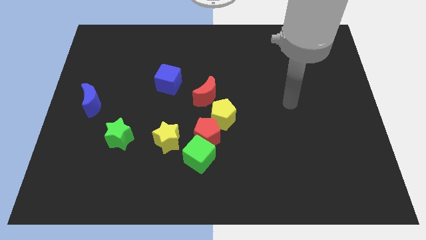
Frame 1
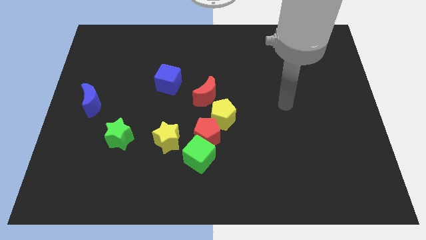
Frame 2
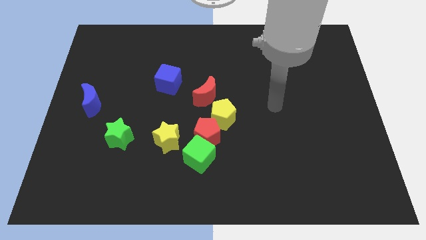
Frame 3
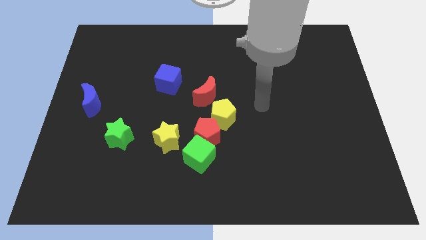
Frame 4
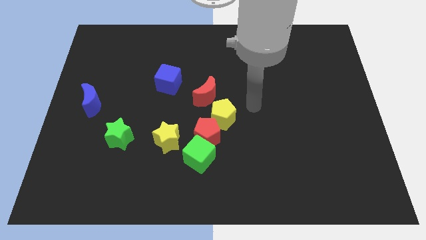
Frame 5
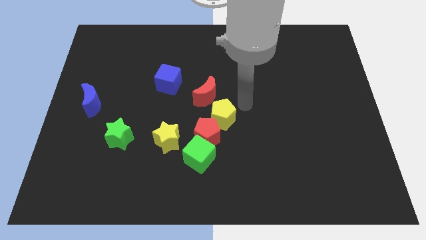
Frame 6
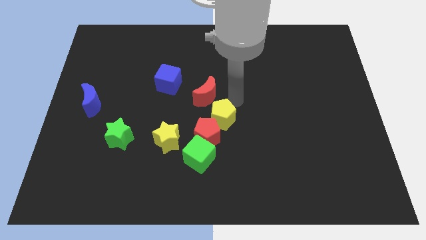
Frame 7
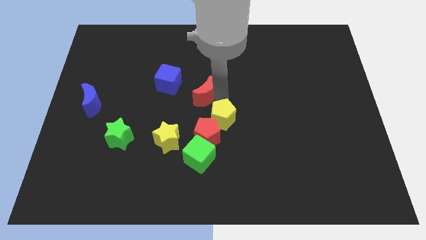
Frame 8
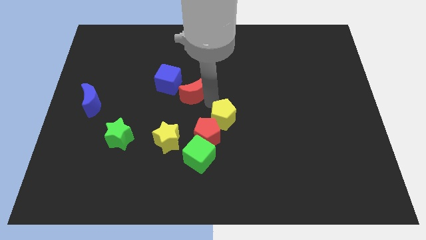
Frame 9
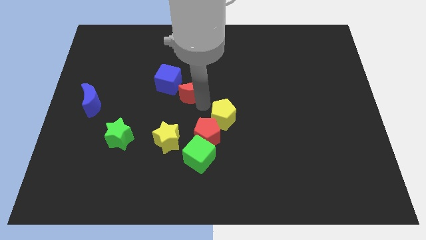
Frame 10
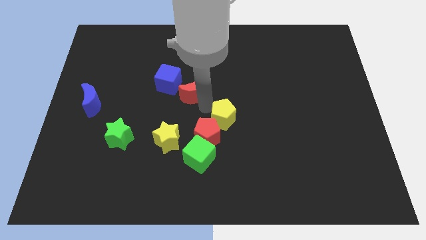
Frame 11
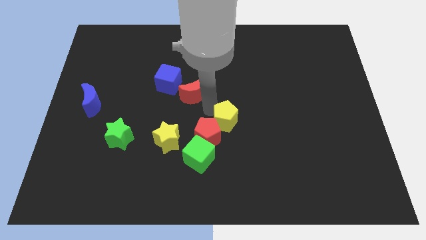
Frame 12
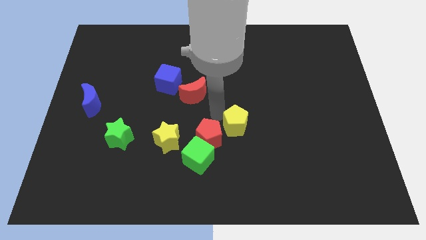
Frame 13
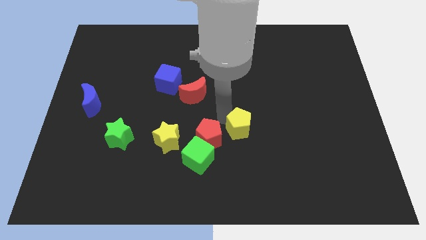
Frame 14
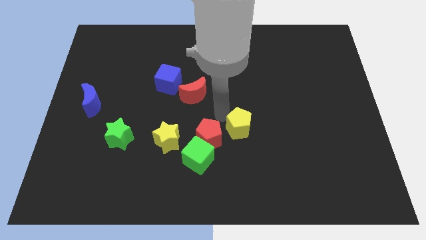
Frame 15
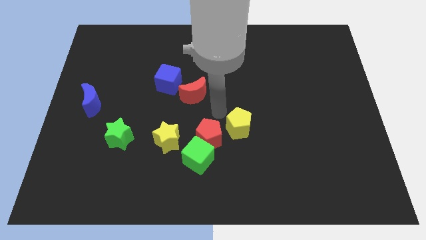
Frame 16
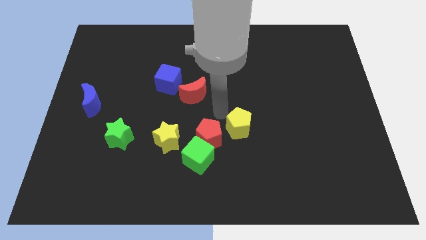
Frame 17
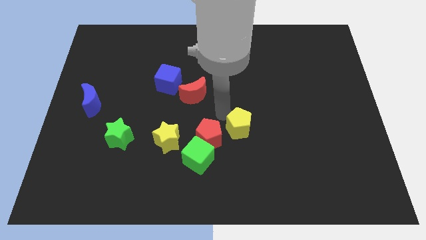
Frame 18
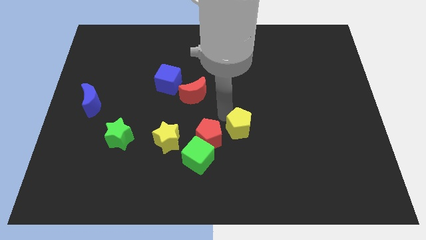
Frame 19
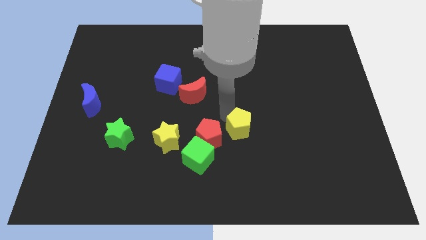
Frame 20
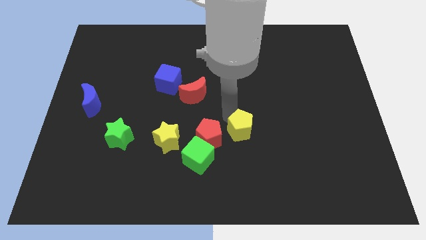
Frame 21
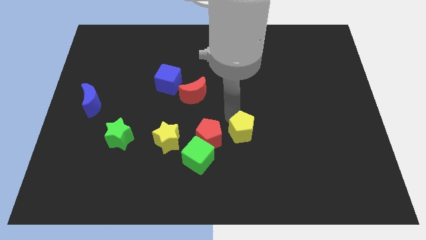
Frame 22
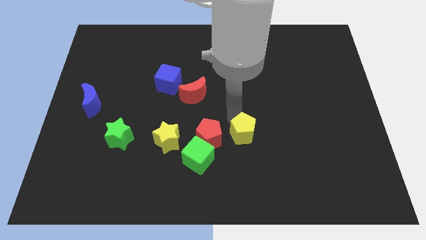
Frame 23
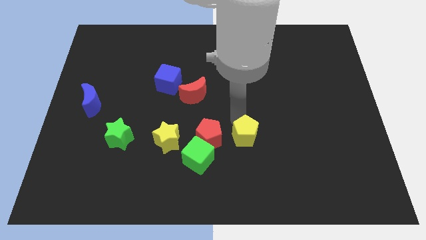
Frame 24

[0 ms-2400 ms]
slightly push the yellow pentagon downwards and to the right

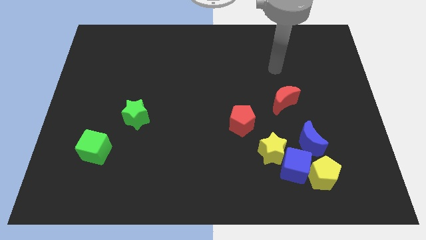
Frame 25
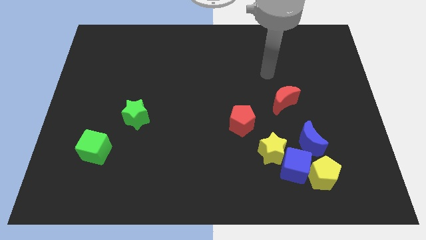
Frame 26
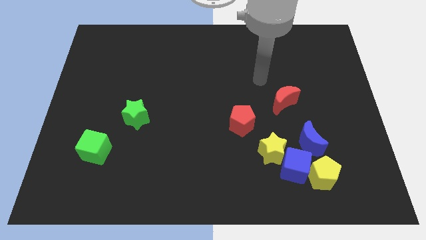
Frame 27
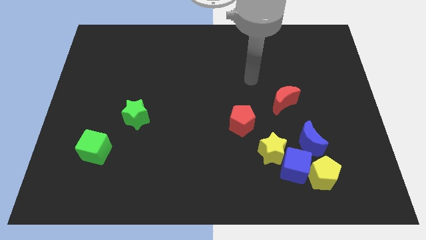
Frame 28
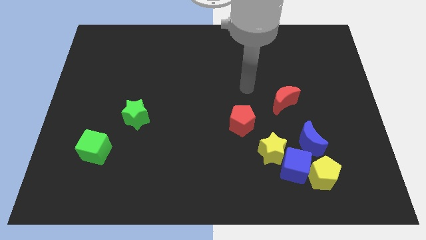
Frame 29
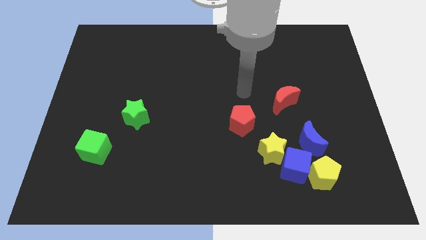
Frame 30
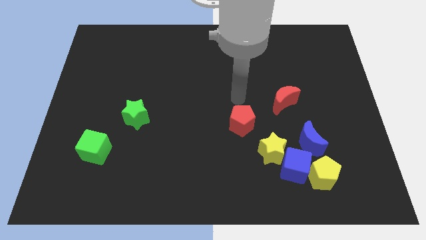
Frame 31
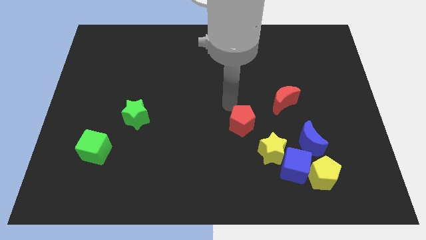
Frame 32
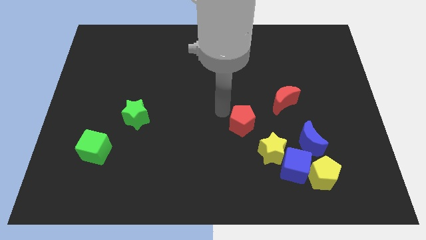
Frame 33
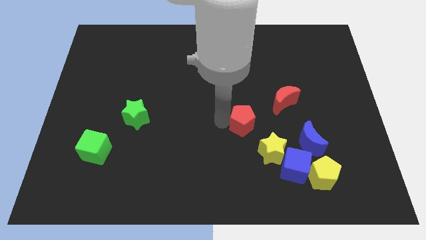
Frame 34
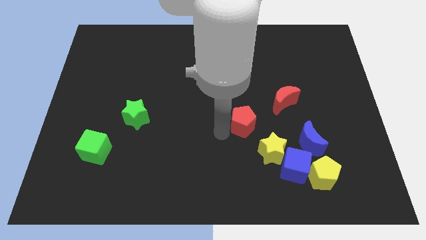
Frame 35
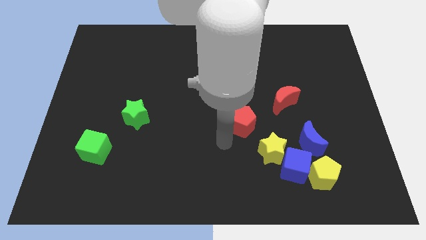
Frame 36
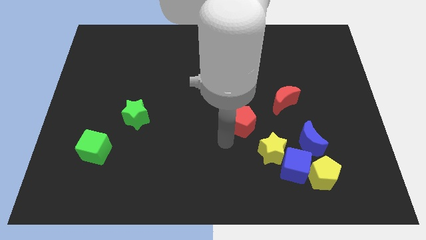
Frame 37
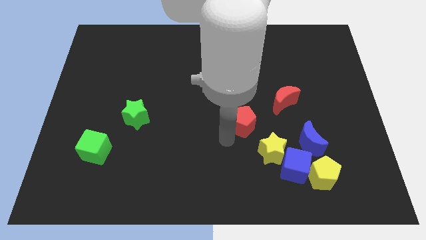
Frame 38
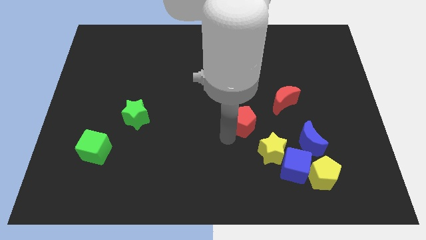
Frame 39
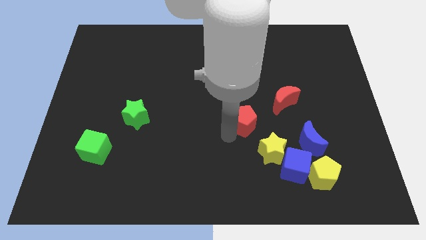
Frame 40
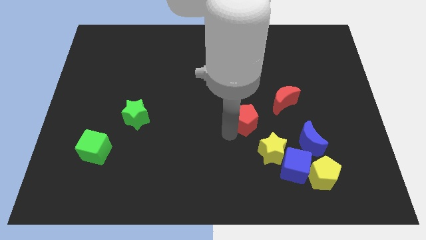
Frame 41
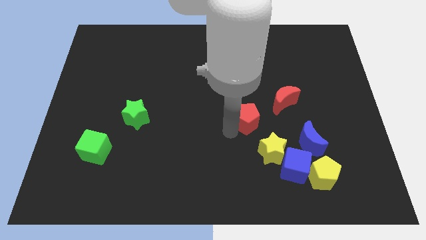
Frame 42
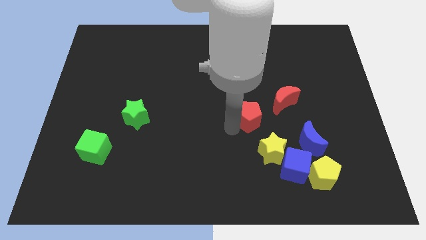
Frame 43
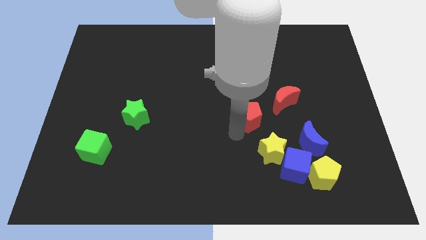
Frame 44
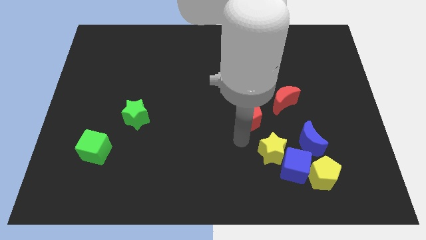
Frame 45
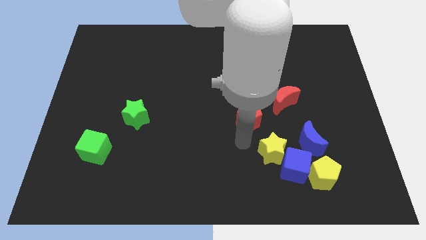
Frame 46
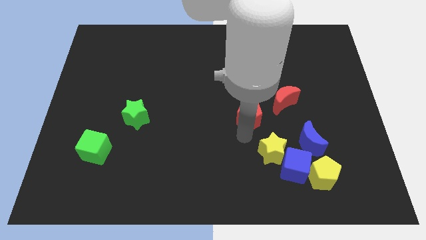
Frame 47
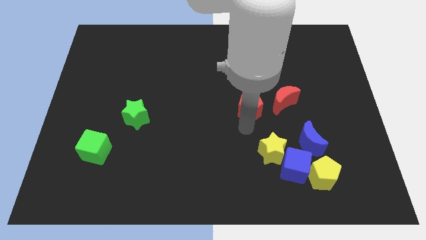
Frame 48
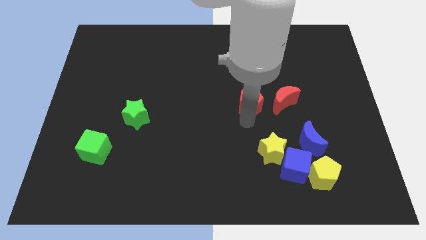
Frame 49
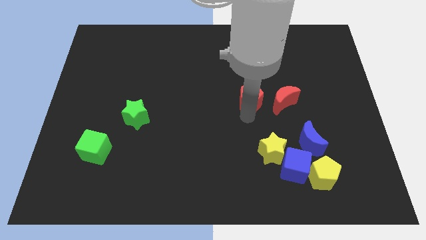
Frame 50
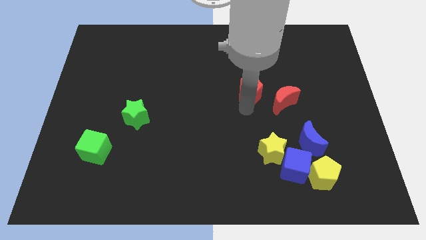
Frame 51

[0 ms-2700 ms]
slightly push the red pentagon up and to the right

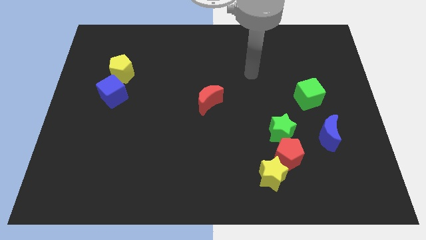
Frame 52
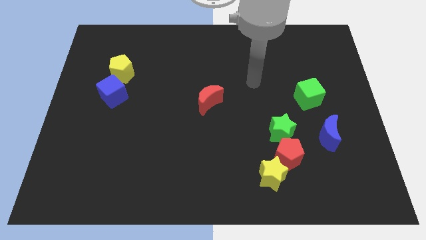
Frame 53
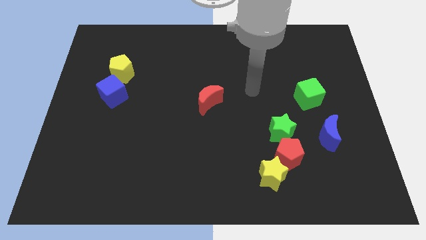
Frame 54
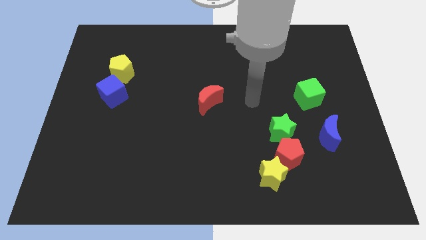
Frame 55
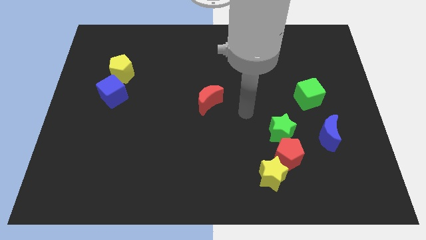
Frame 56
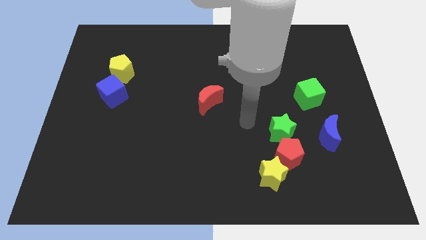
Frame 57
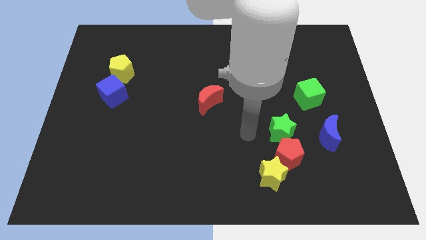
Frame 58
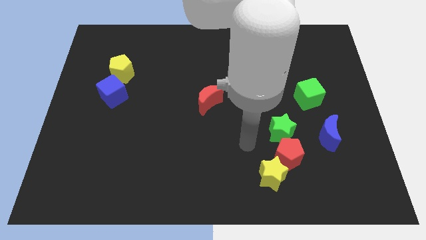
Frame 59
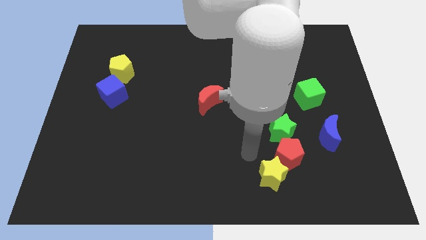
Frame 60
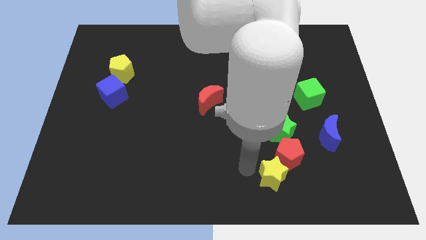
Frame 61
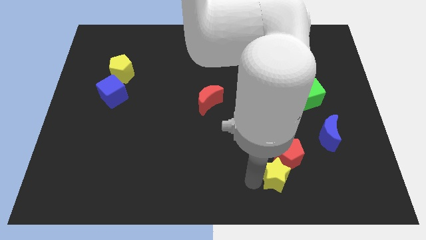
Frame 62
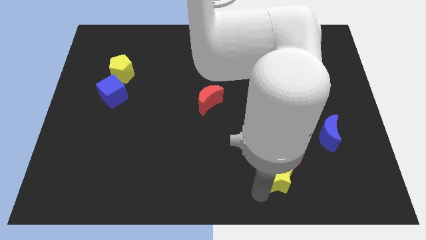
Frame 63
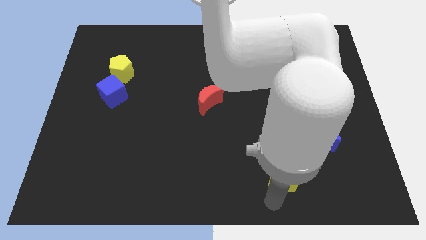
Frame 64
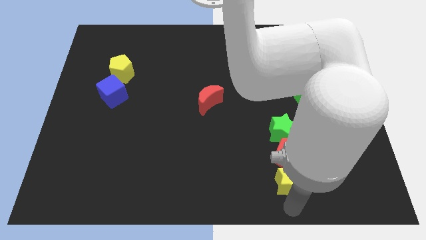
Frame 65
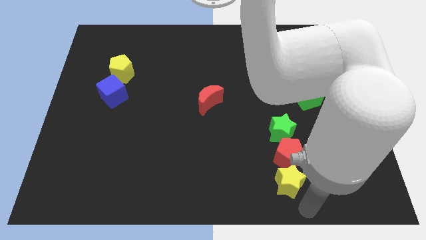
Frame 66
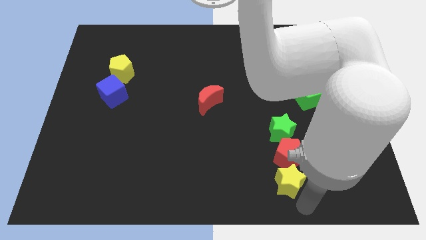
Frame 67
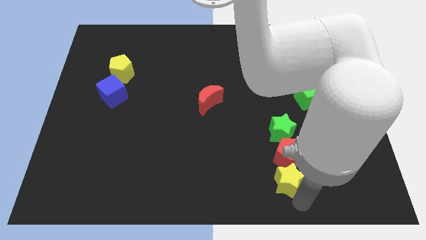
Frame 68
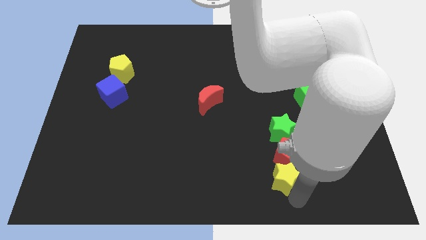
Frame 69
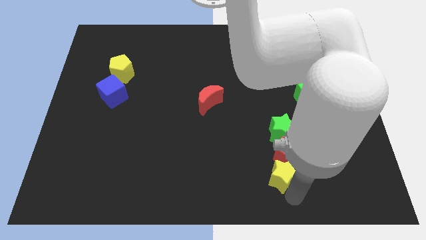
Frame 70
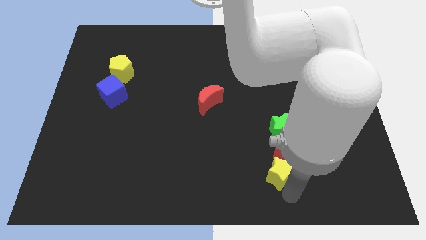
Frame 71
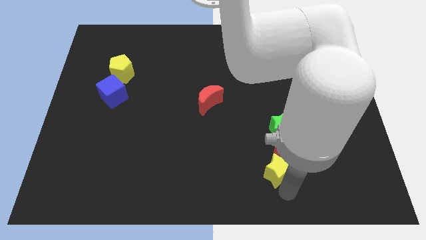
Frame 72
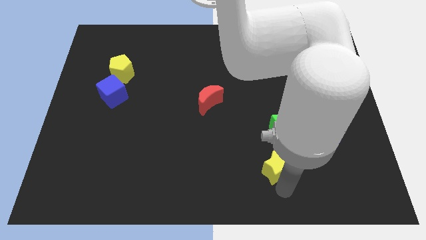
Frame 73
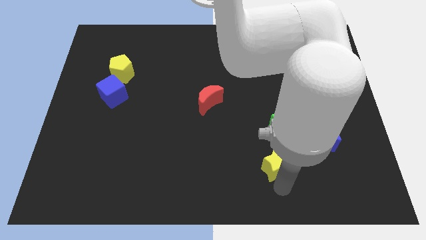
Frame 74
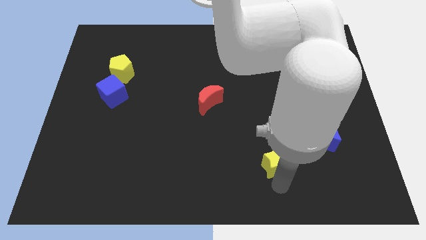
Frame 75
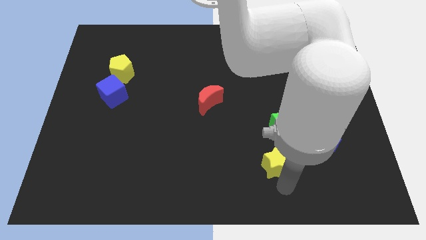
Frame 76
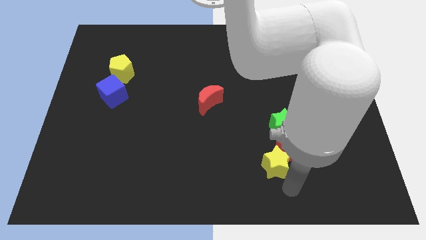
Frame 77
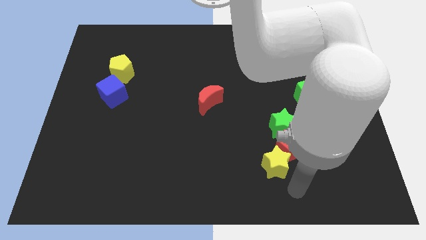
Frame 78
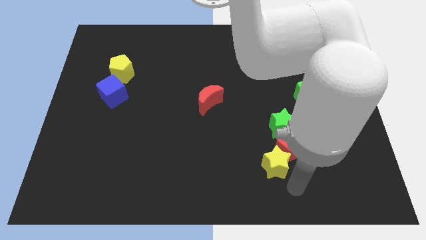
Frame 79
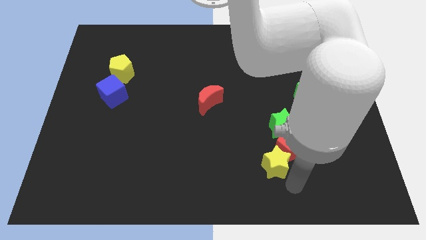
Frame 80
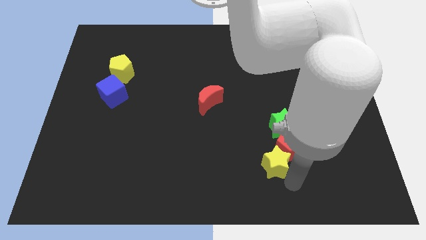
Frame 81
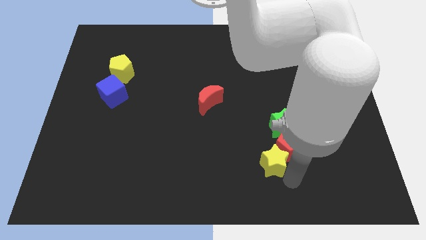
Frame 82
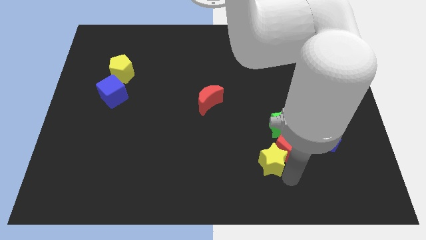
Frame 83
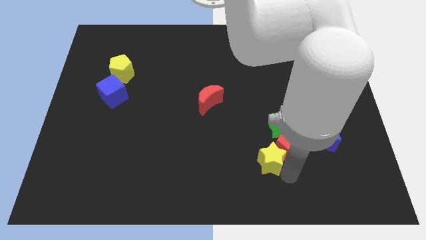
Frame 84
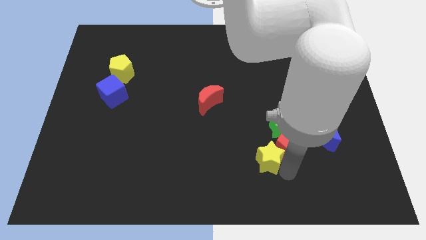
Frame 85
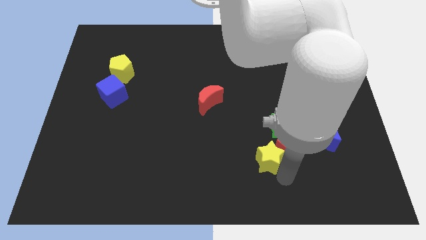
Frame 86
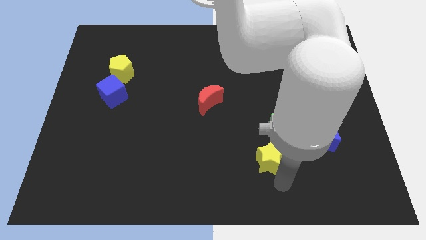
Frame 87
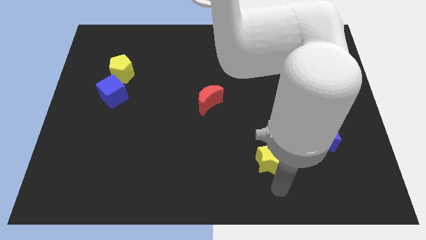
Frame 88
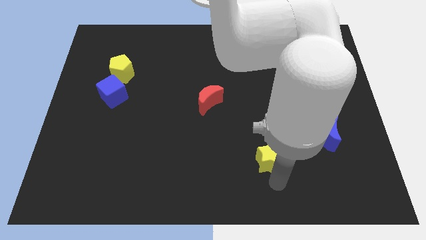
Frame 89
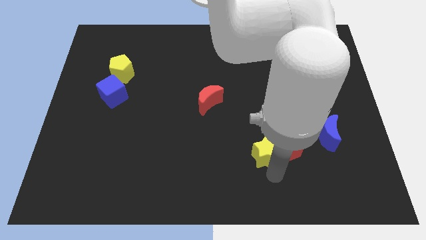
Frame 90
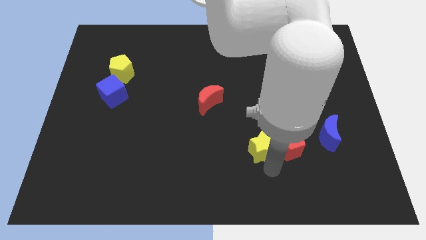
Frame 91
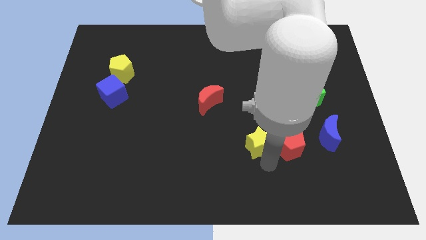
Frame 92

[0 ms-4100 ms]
push the yellow star a bit upwards
